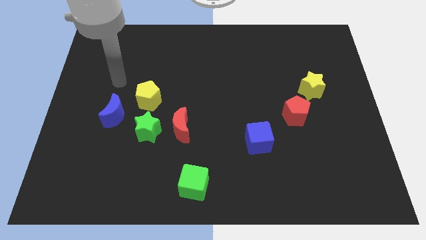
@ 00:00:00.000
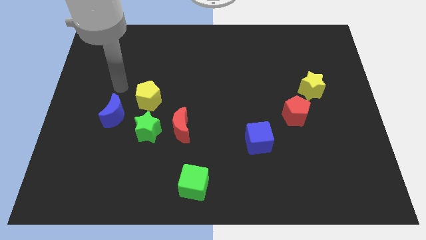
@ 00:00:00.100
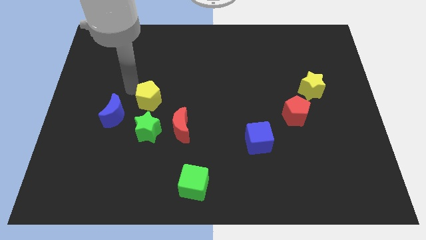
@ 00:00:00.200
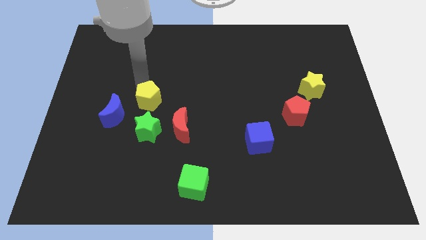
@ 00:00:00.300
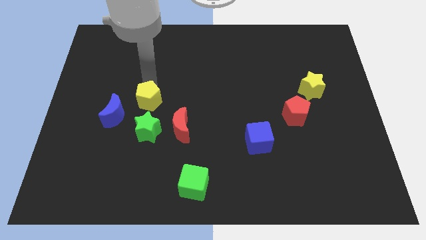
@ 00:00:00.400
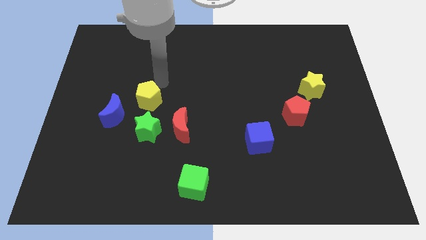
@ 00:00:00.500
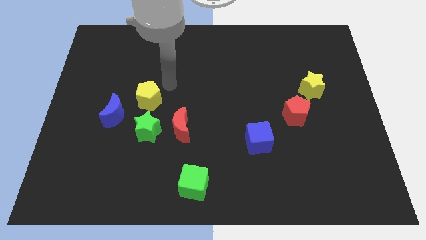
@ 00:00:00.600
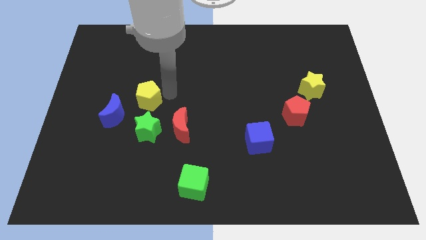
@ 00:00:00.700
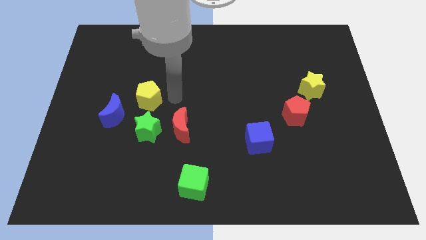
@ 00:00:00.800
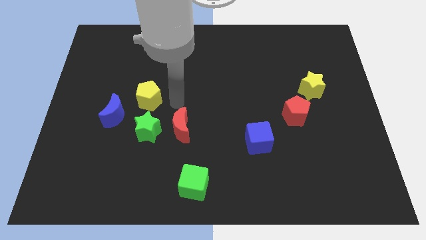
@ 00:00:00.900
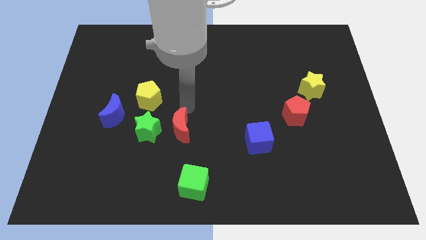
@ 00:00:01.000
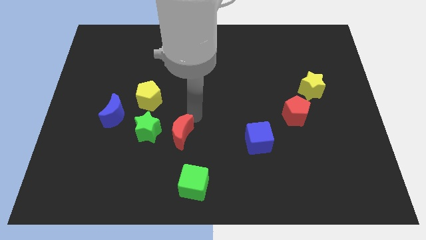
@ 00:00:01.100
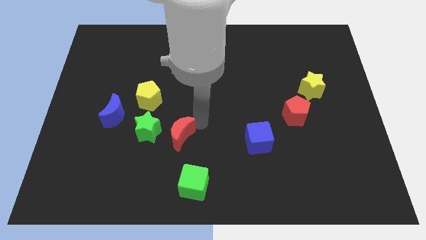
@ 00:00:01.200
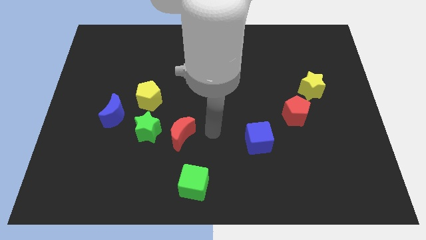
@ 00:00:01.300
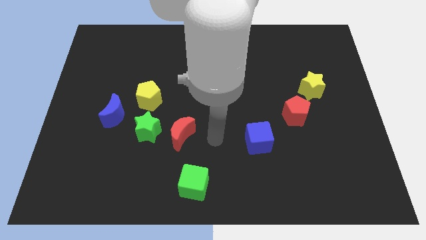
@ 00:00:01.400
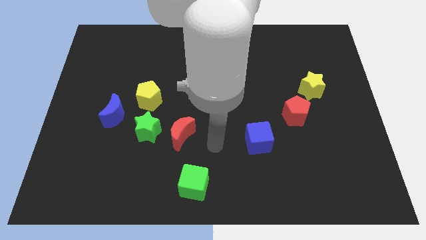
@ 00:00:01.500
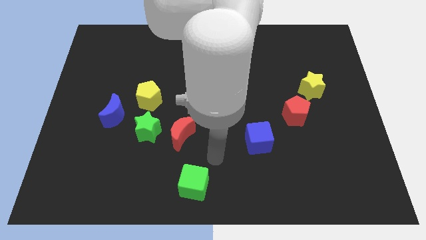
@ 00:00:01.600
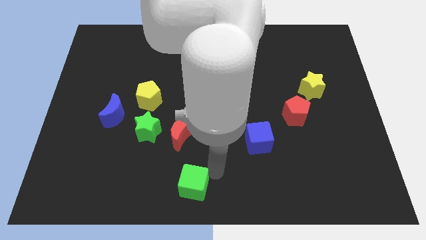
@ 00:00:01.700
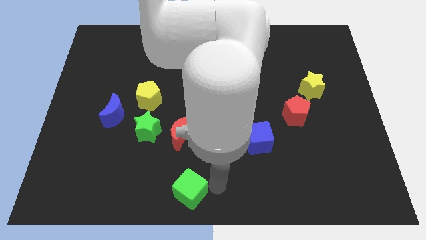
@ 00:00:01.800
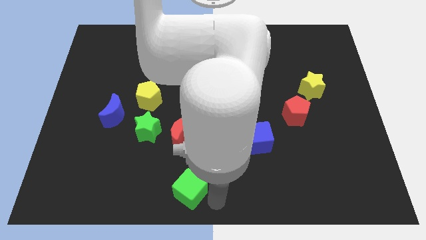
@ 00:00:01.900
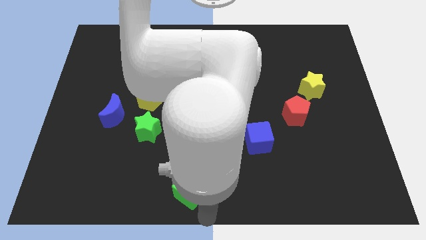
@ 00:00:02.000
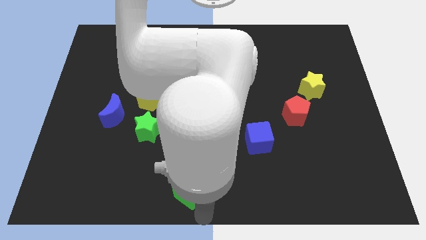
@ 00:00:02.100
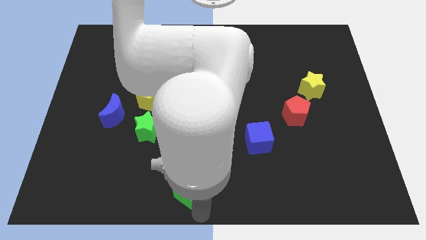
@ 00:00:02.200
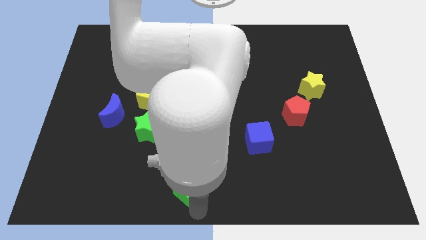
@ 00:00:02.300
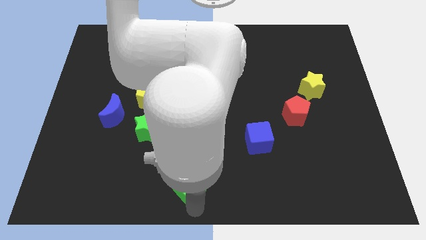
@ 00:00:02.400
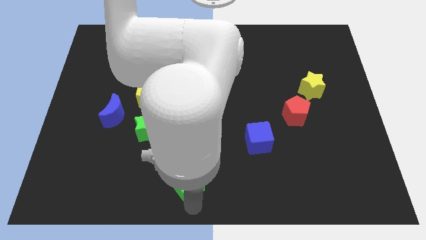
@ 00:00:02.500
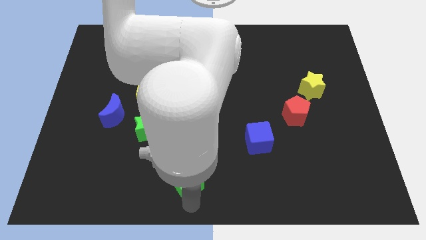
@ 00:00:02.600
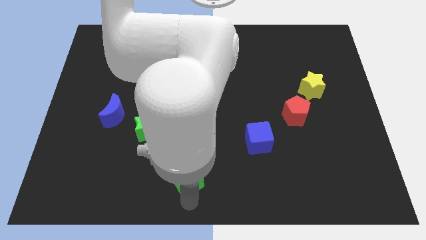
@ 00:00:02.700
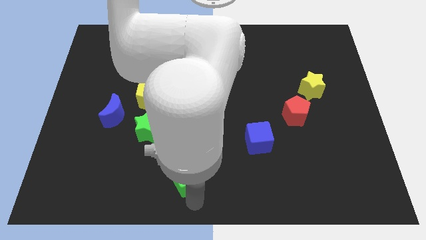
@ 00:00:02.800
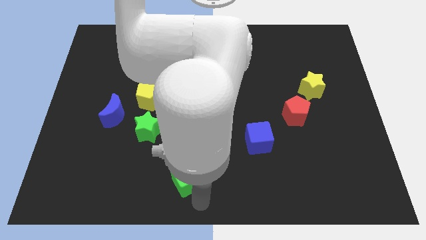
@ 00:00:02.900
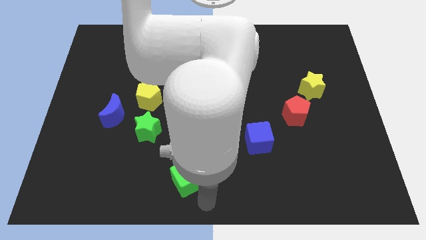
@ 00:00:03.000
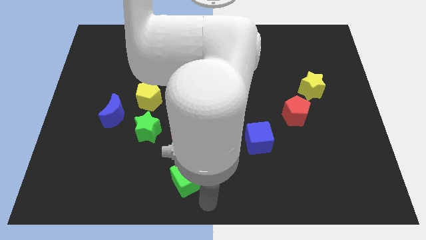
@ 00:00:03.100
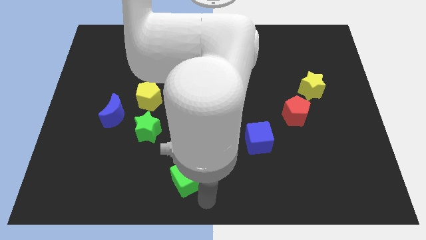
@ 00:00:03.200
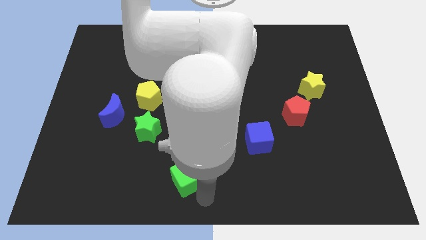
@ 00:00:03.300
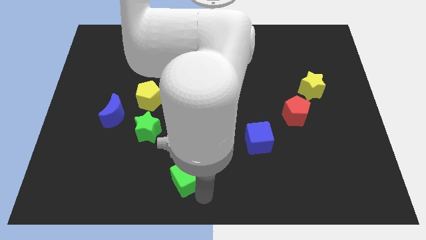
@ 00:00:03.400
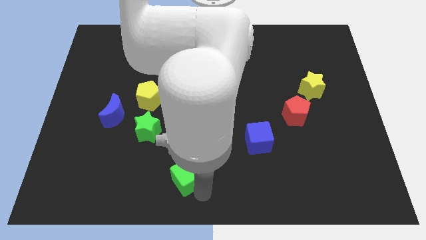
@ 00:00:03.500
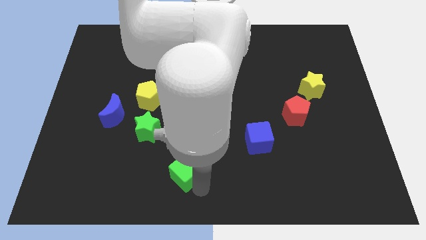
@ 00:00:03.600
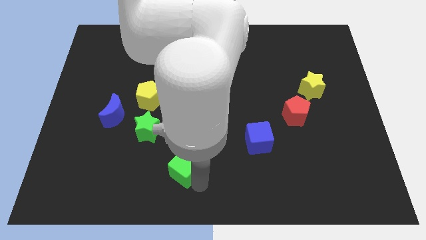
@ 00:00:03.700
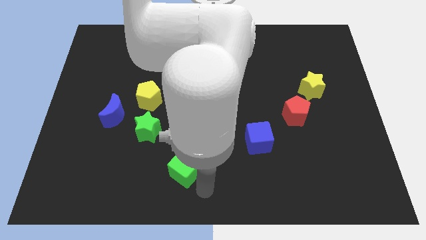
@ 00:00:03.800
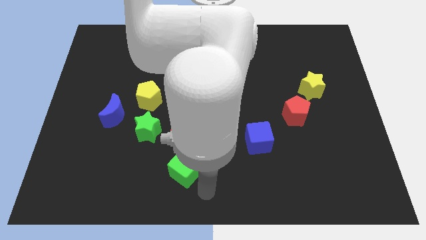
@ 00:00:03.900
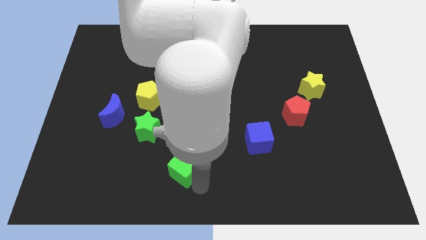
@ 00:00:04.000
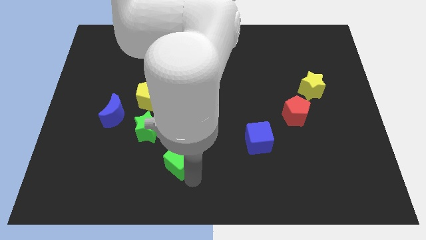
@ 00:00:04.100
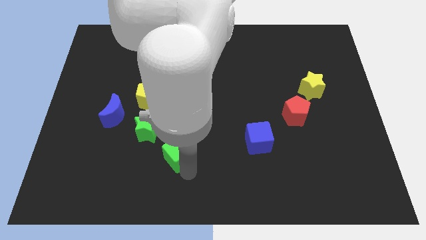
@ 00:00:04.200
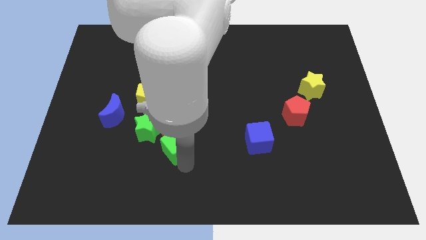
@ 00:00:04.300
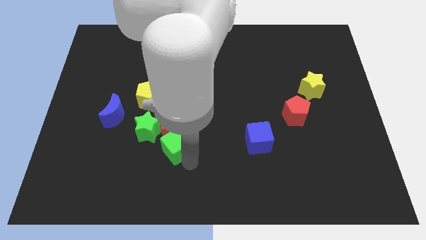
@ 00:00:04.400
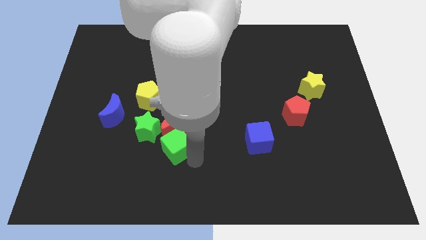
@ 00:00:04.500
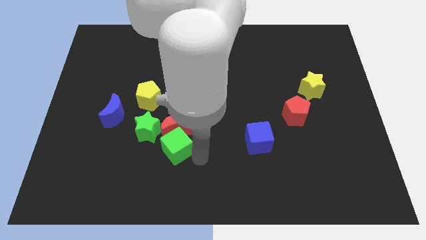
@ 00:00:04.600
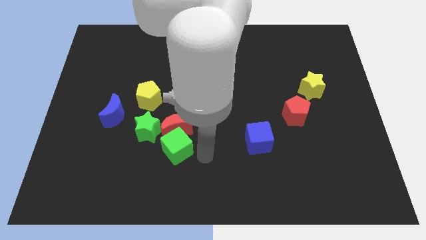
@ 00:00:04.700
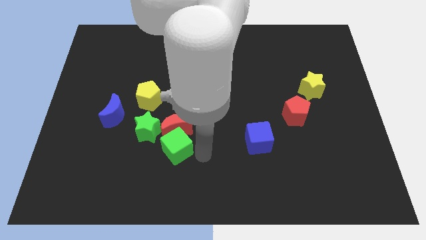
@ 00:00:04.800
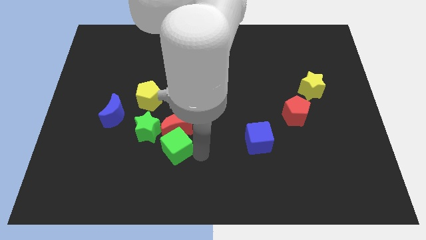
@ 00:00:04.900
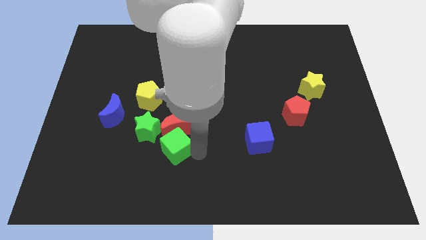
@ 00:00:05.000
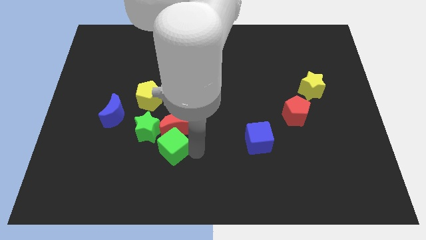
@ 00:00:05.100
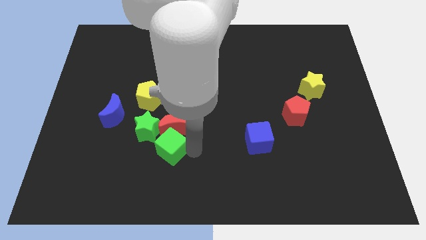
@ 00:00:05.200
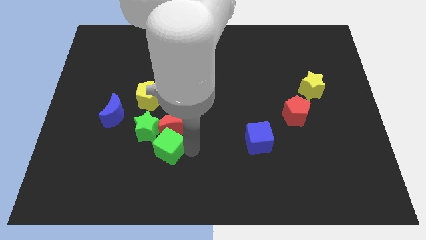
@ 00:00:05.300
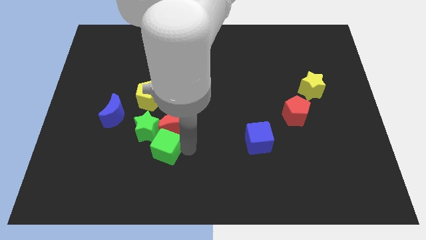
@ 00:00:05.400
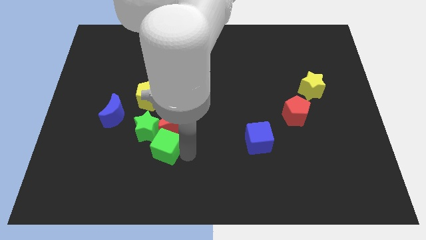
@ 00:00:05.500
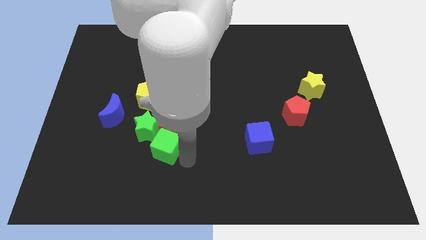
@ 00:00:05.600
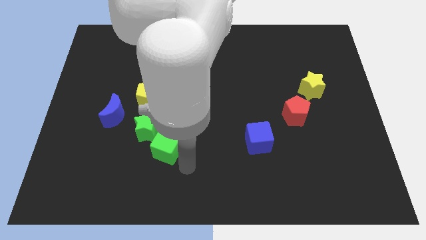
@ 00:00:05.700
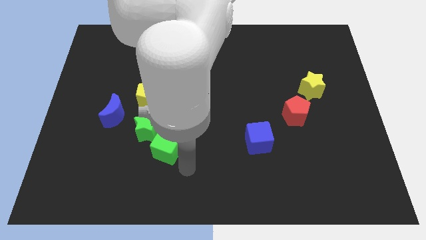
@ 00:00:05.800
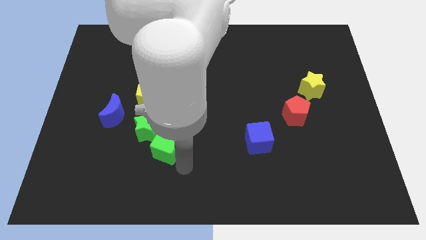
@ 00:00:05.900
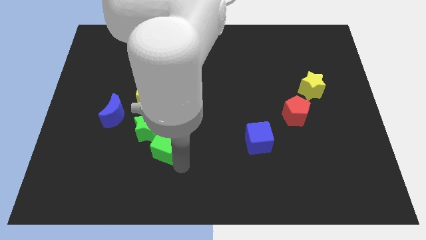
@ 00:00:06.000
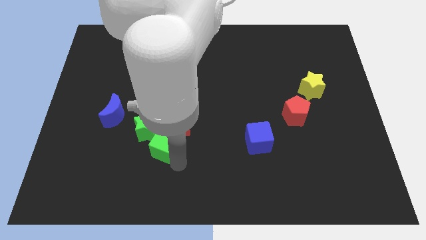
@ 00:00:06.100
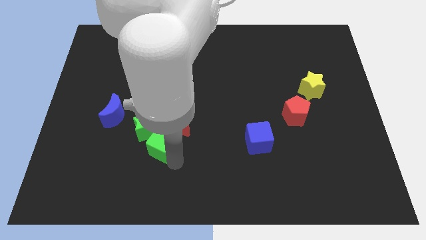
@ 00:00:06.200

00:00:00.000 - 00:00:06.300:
slide the green cube to the green star
